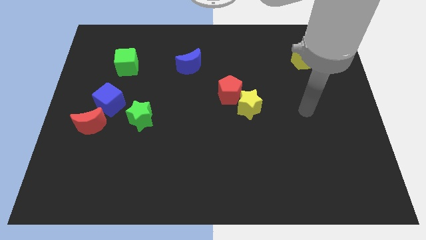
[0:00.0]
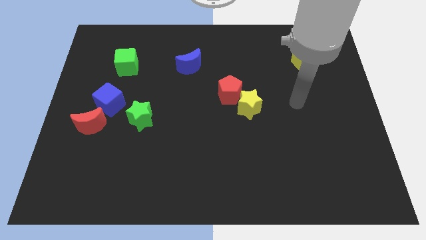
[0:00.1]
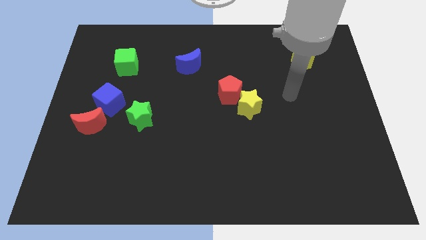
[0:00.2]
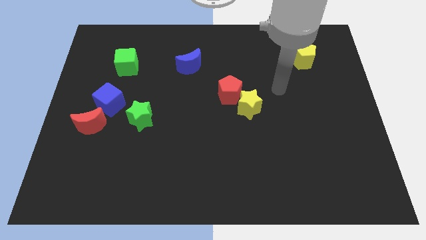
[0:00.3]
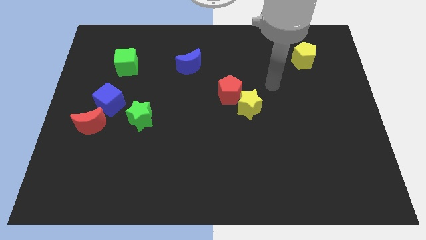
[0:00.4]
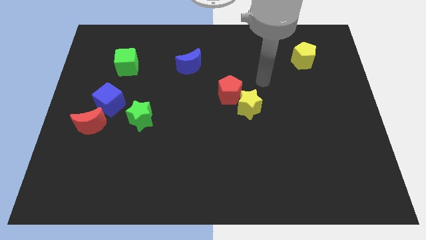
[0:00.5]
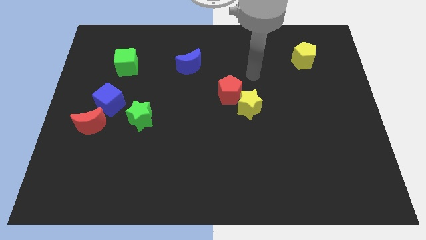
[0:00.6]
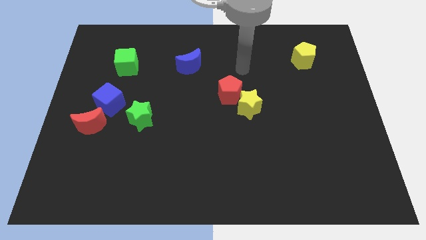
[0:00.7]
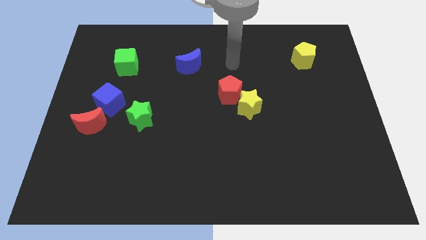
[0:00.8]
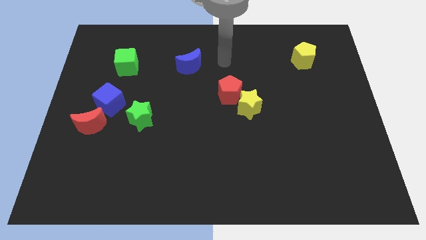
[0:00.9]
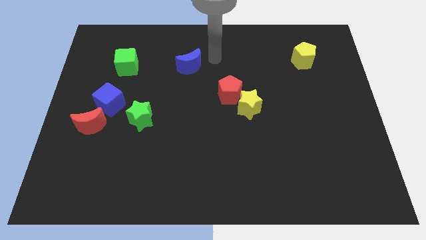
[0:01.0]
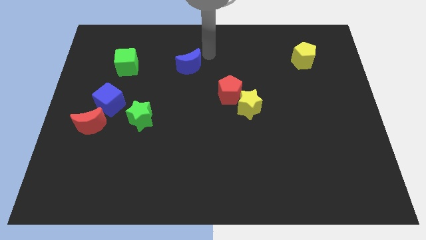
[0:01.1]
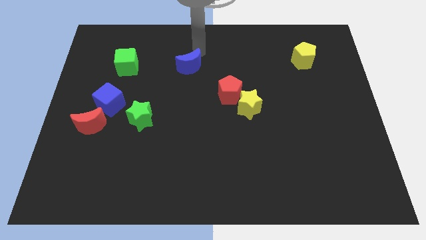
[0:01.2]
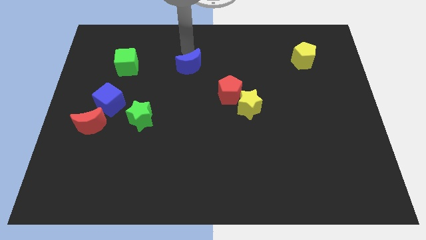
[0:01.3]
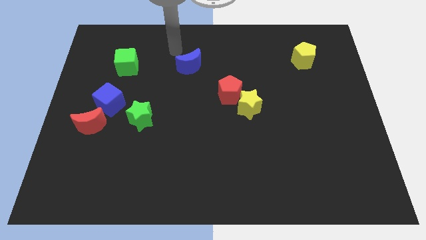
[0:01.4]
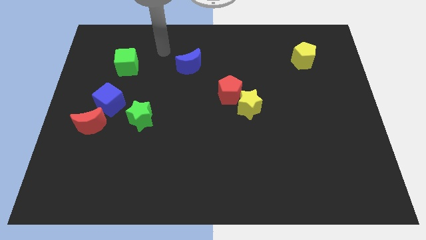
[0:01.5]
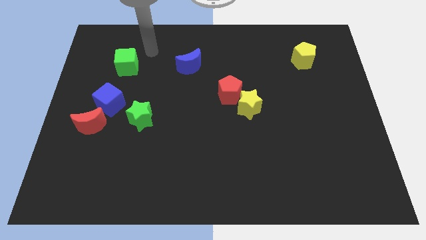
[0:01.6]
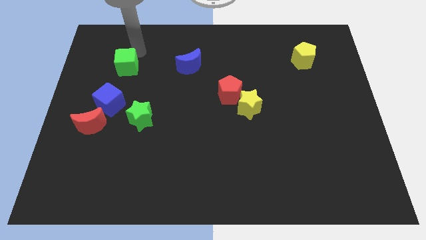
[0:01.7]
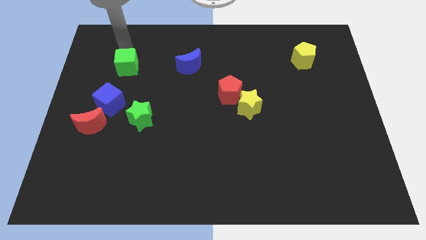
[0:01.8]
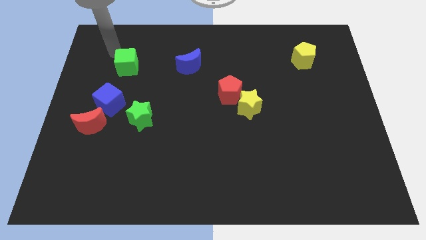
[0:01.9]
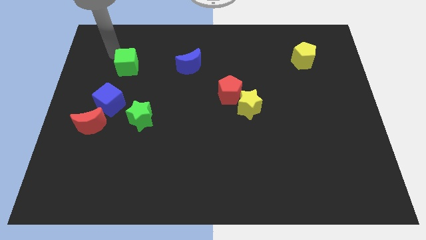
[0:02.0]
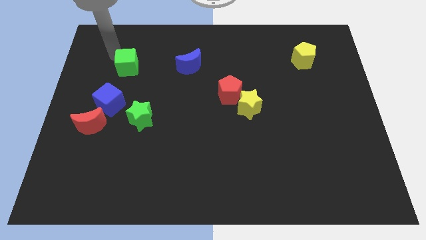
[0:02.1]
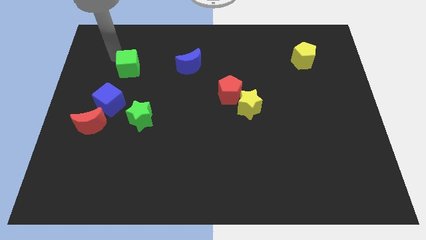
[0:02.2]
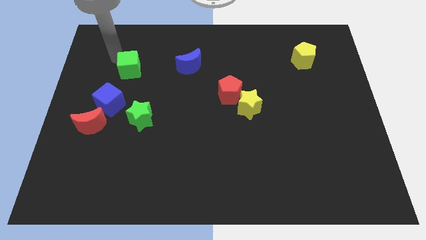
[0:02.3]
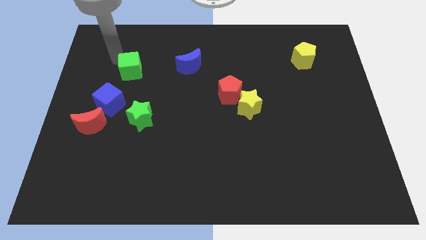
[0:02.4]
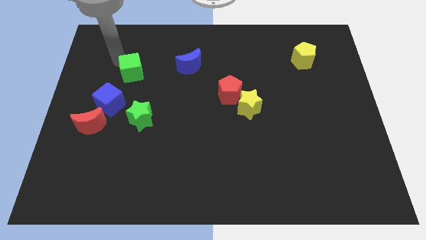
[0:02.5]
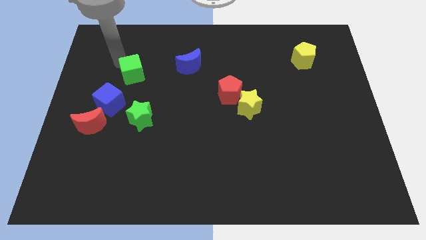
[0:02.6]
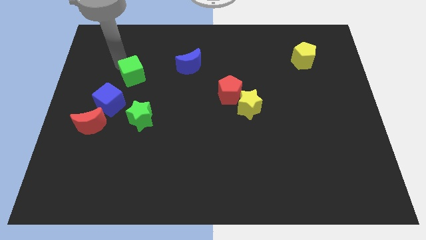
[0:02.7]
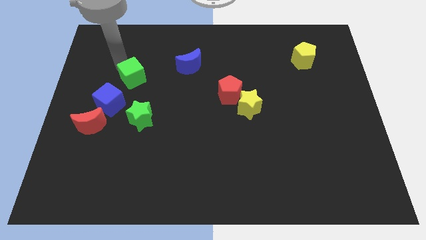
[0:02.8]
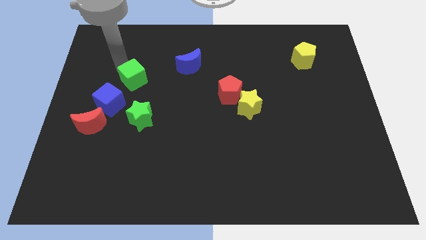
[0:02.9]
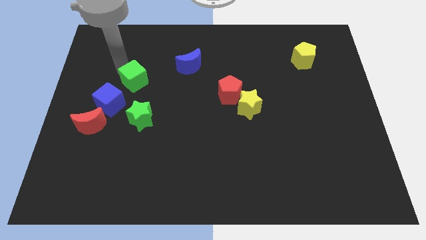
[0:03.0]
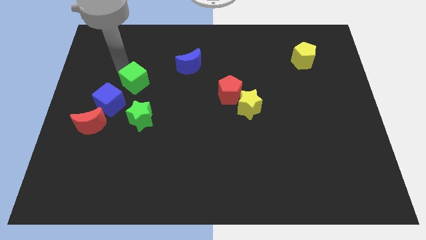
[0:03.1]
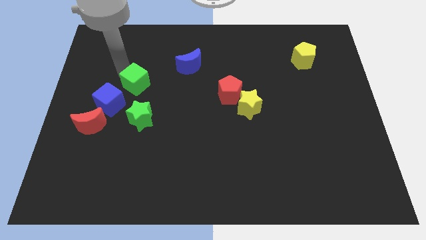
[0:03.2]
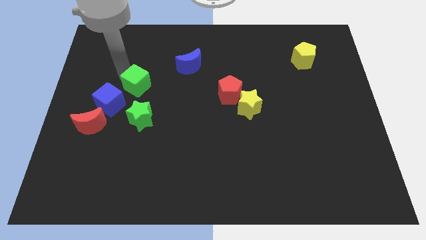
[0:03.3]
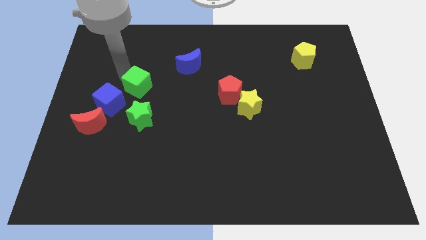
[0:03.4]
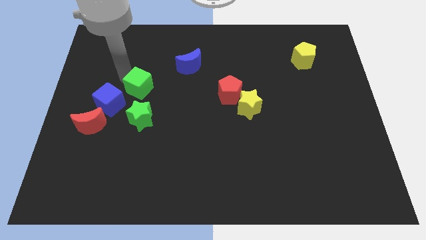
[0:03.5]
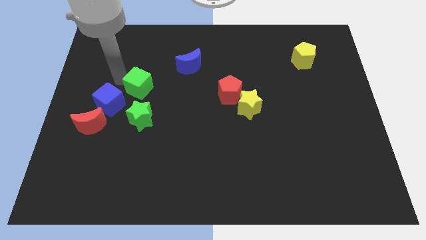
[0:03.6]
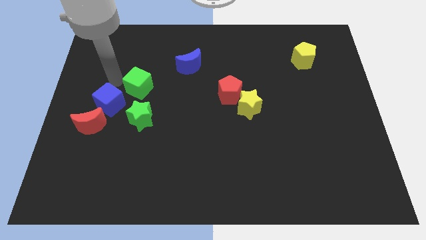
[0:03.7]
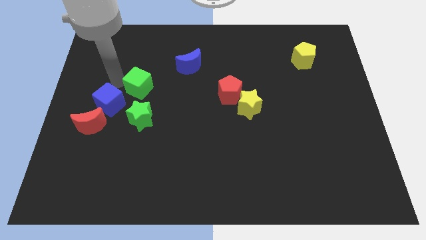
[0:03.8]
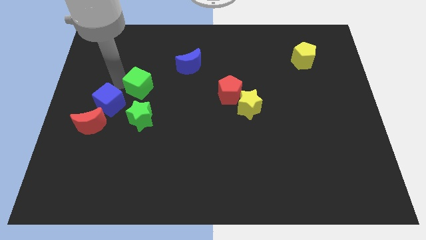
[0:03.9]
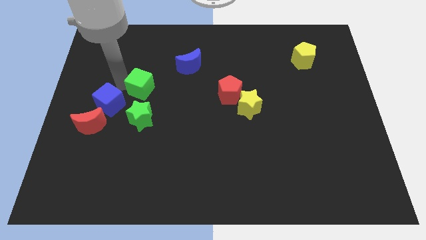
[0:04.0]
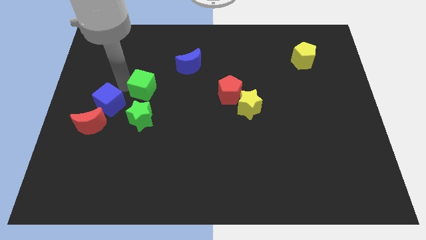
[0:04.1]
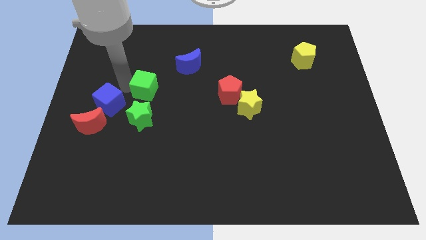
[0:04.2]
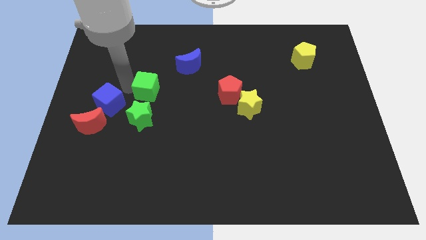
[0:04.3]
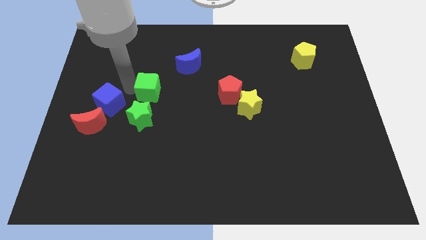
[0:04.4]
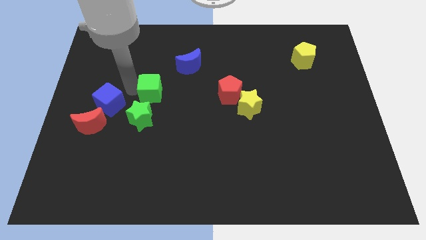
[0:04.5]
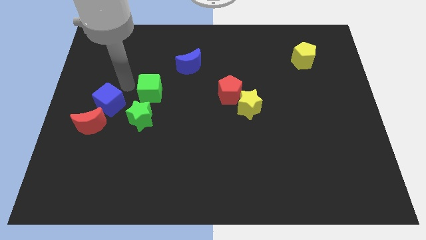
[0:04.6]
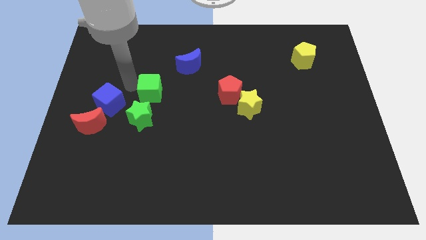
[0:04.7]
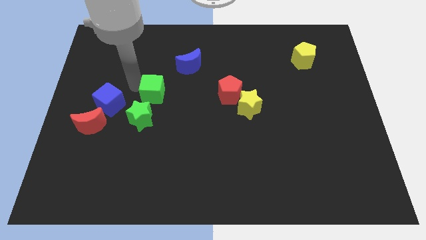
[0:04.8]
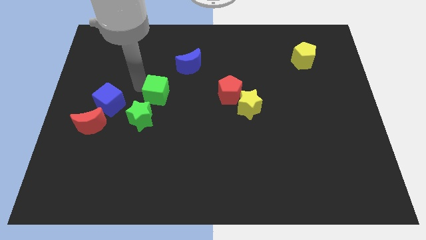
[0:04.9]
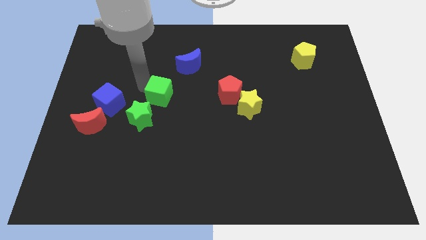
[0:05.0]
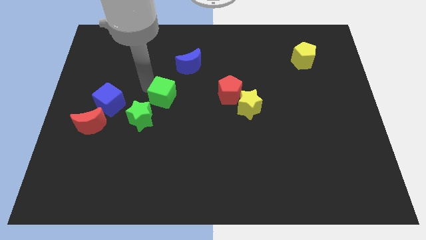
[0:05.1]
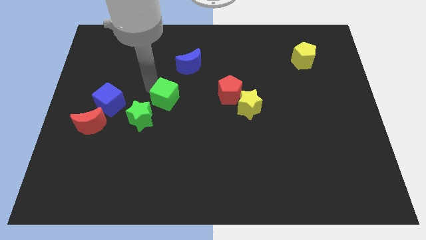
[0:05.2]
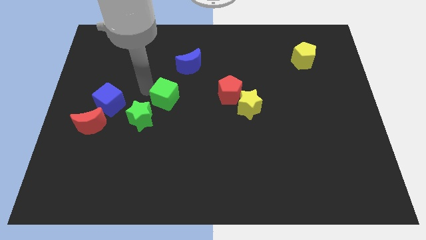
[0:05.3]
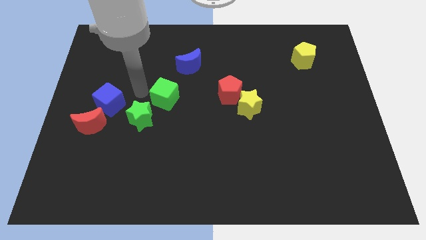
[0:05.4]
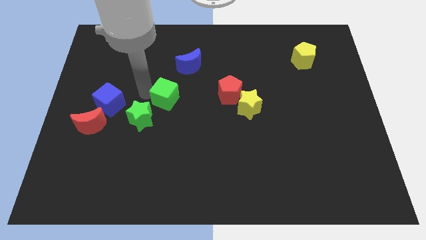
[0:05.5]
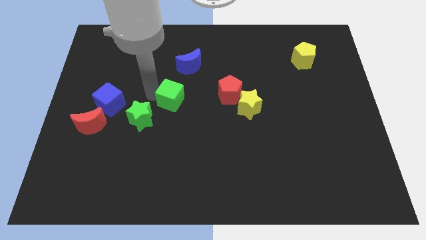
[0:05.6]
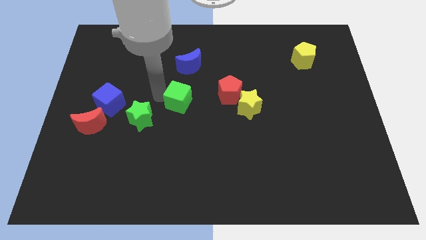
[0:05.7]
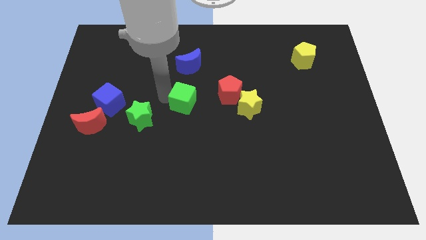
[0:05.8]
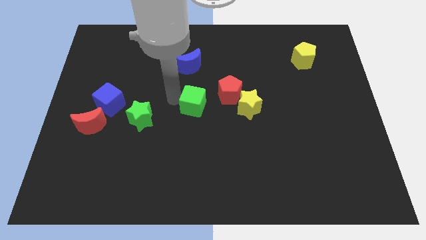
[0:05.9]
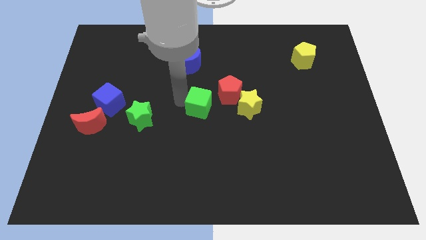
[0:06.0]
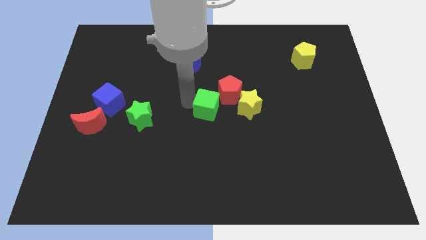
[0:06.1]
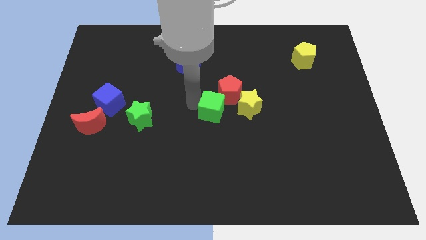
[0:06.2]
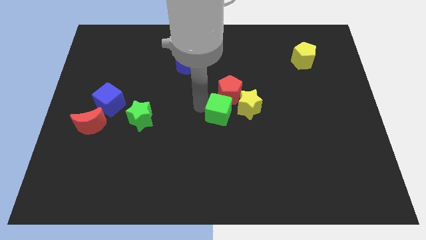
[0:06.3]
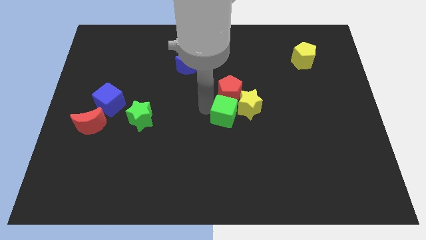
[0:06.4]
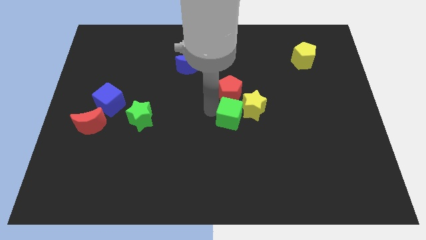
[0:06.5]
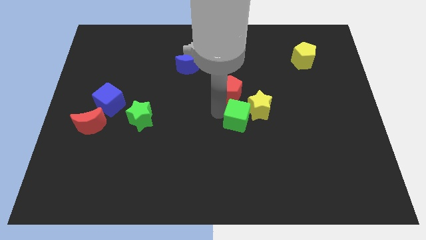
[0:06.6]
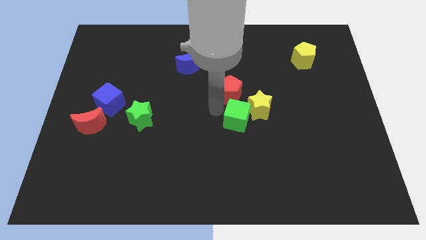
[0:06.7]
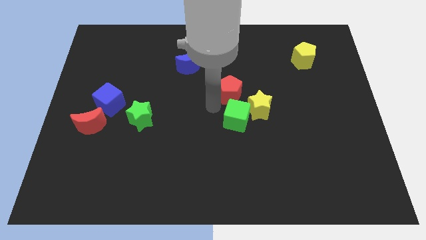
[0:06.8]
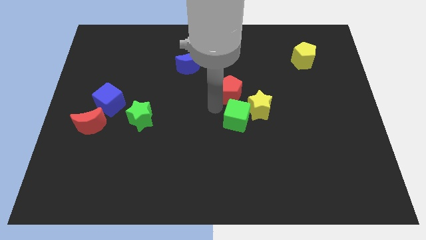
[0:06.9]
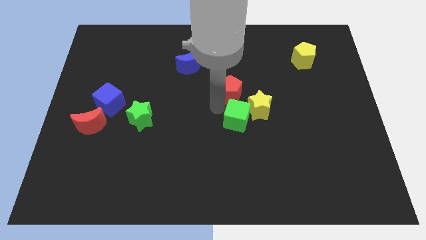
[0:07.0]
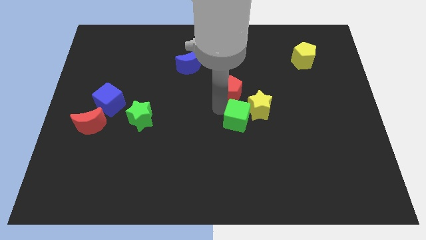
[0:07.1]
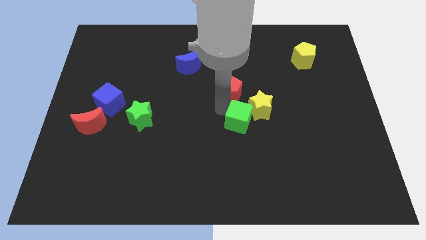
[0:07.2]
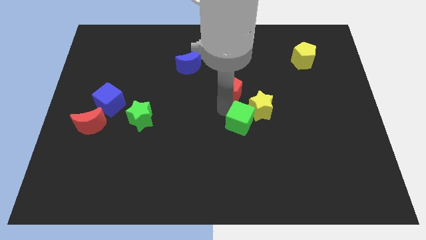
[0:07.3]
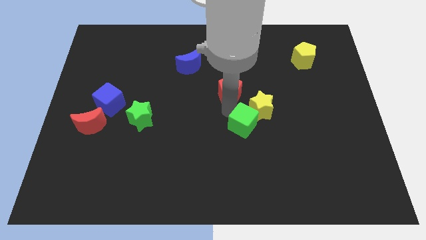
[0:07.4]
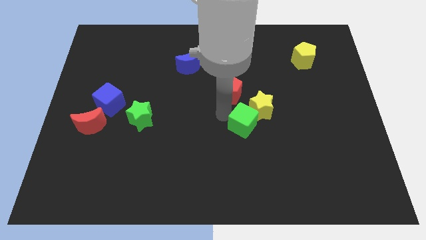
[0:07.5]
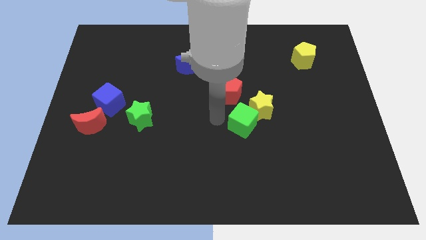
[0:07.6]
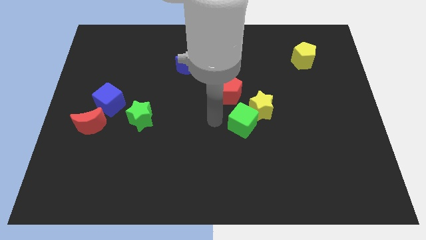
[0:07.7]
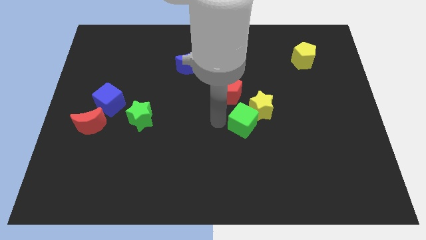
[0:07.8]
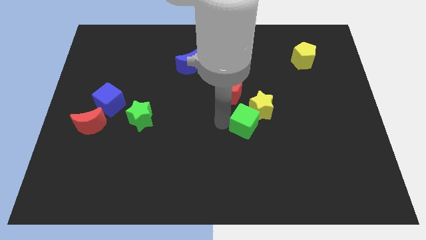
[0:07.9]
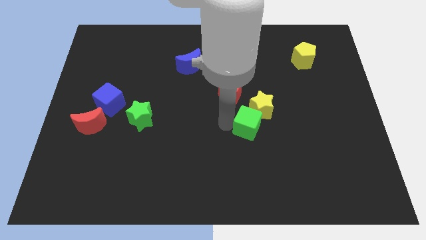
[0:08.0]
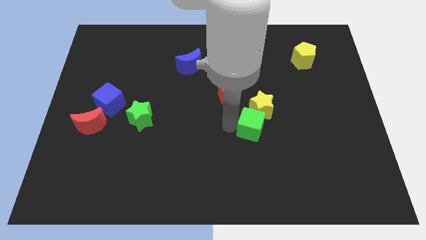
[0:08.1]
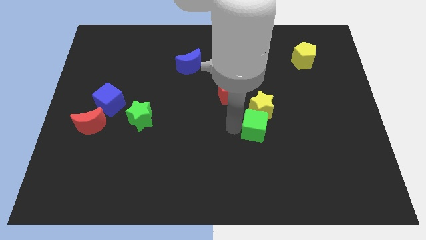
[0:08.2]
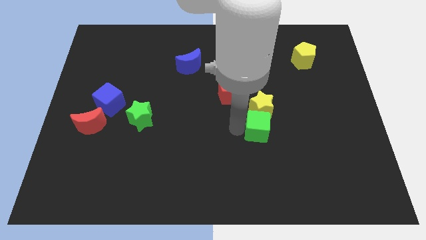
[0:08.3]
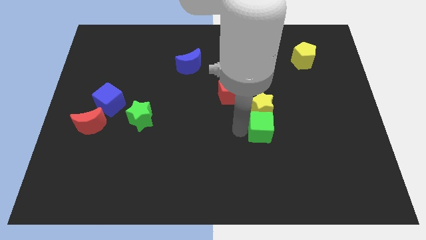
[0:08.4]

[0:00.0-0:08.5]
slide the green cube to the bottom right of the yellow star
